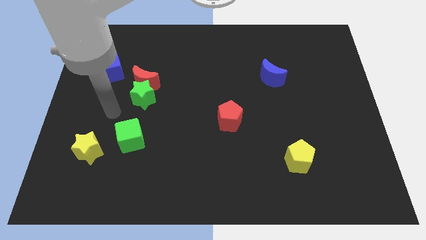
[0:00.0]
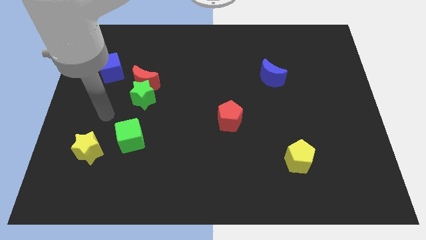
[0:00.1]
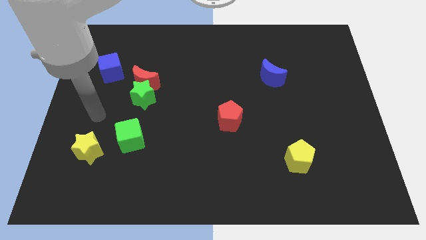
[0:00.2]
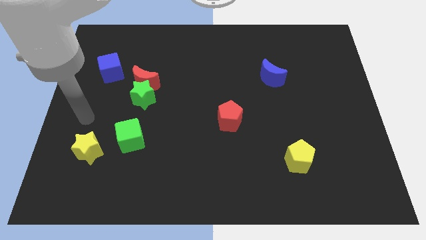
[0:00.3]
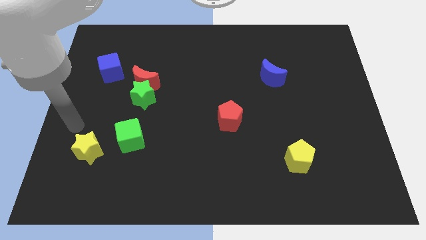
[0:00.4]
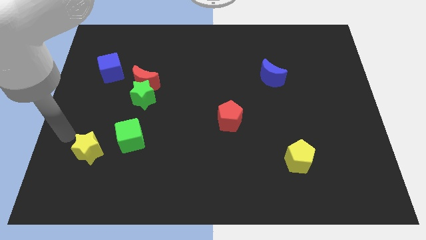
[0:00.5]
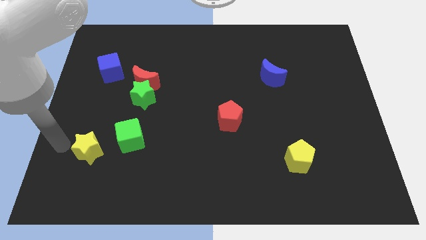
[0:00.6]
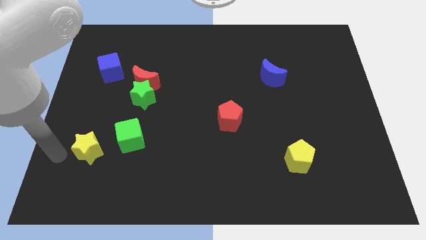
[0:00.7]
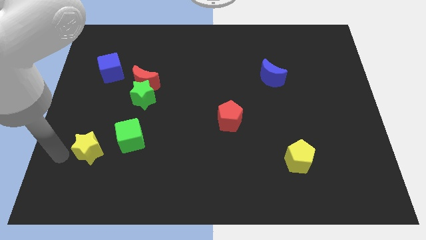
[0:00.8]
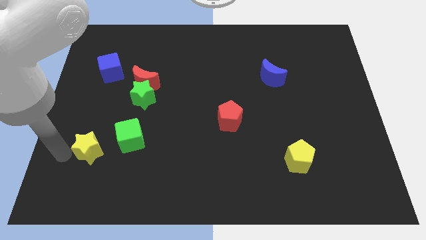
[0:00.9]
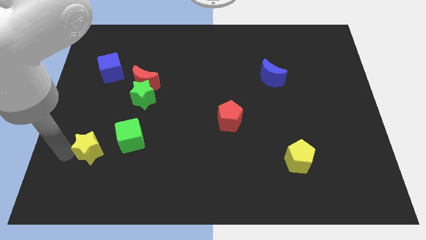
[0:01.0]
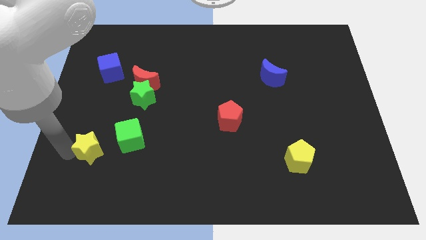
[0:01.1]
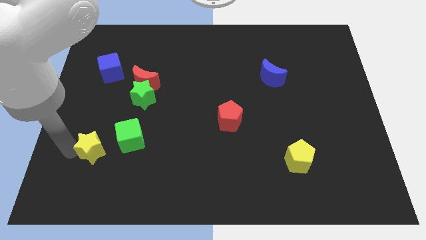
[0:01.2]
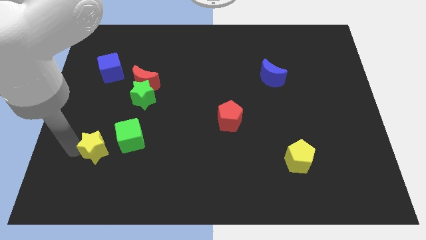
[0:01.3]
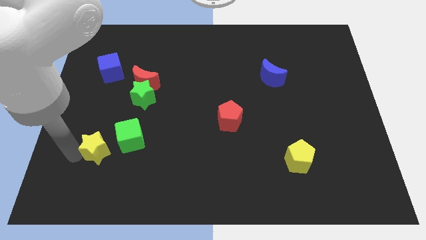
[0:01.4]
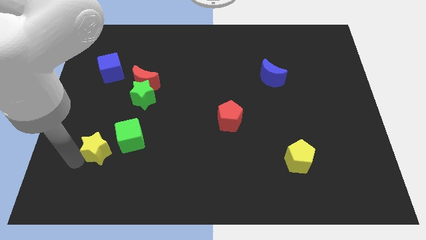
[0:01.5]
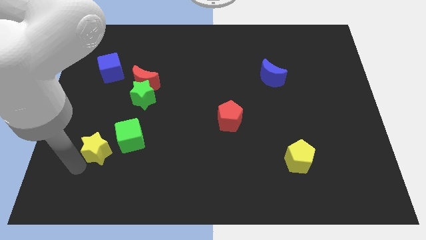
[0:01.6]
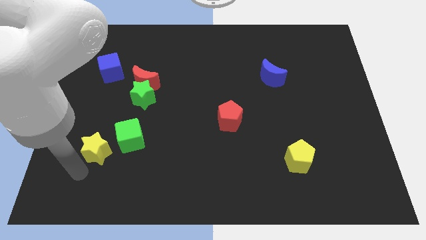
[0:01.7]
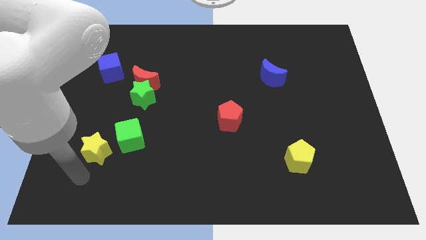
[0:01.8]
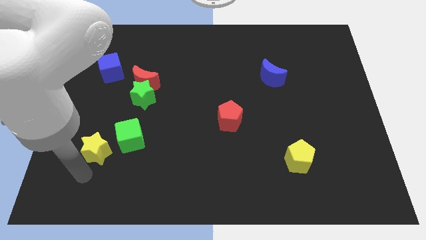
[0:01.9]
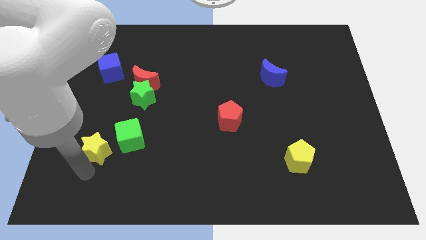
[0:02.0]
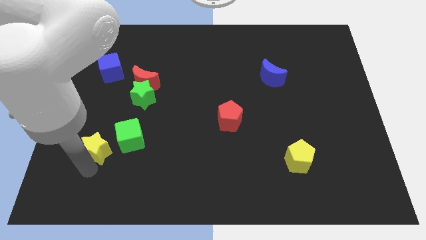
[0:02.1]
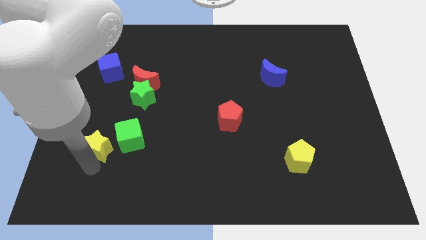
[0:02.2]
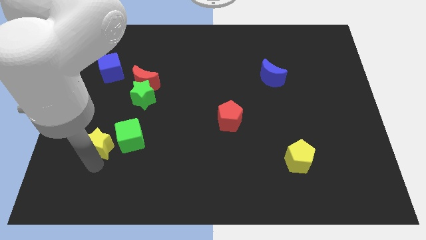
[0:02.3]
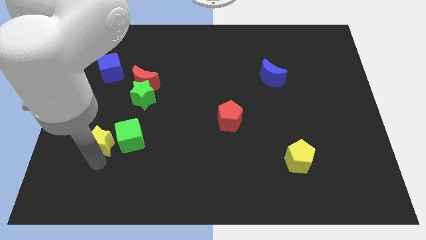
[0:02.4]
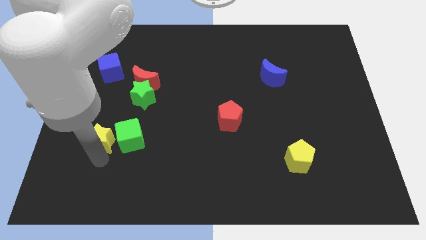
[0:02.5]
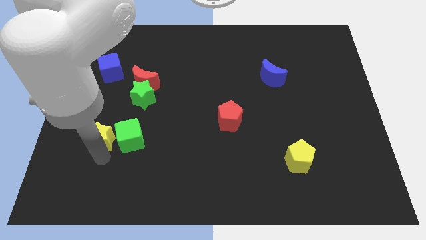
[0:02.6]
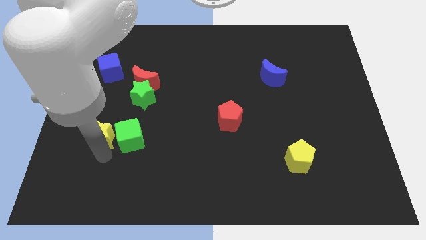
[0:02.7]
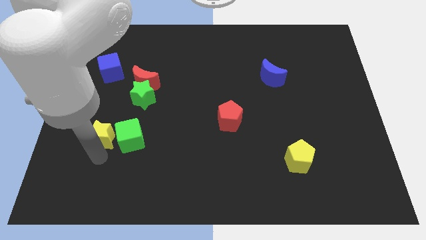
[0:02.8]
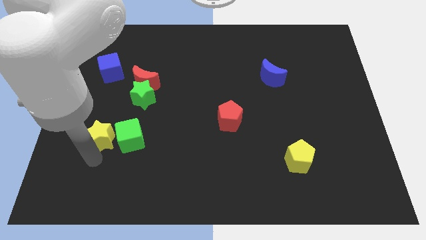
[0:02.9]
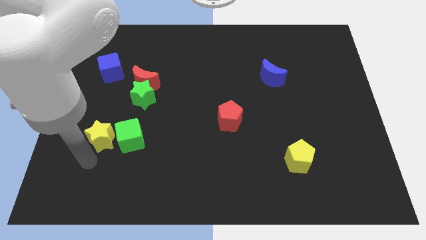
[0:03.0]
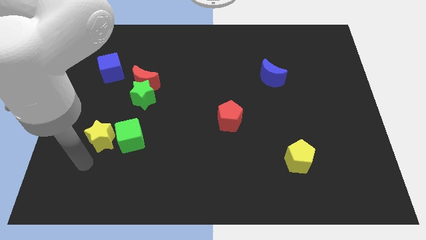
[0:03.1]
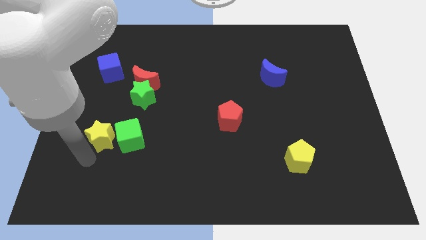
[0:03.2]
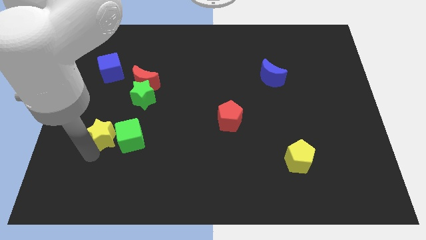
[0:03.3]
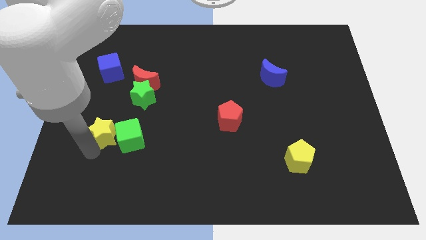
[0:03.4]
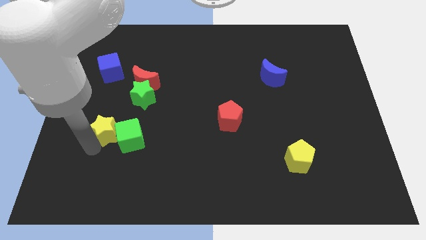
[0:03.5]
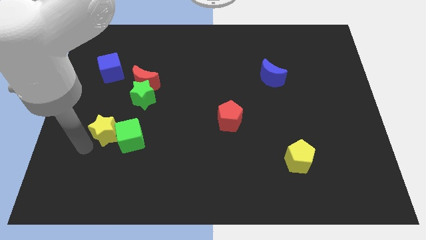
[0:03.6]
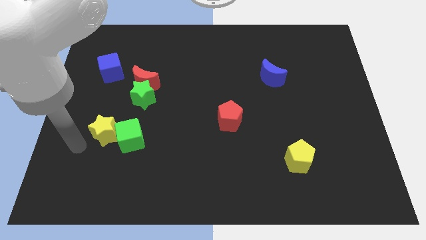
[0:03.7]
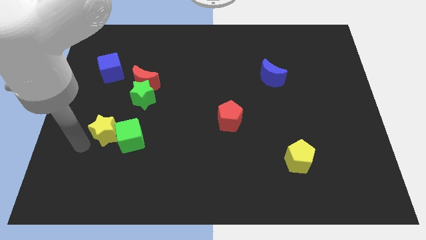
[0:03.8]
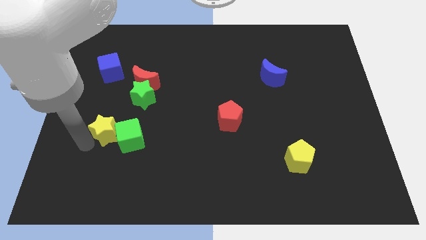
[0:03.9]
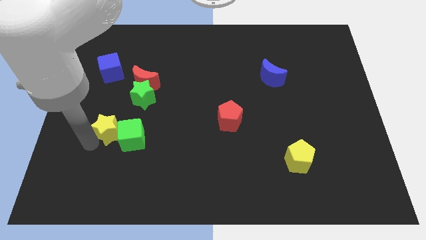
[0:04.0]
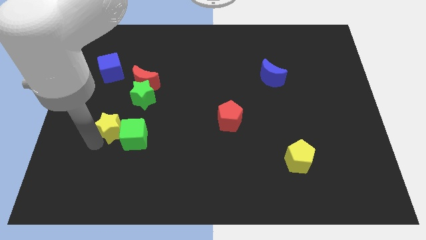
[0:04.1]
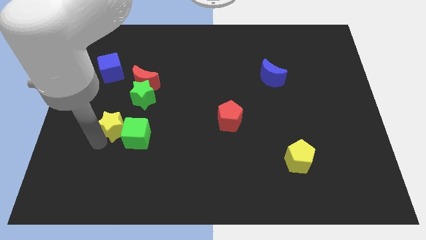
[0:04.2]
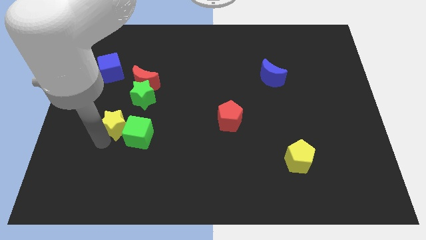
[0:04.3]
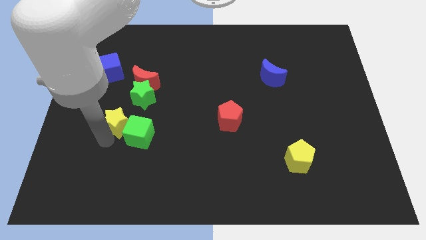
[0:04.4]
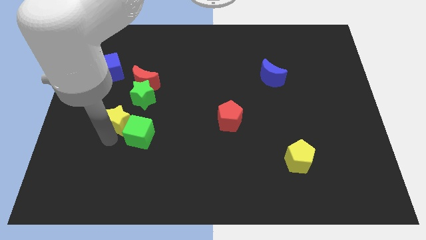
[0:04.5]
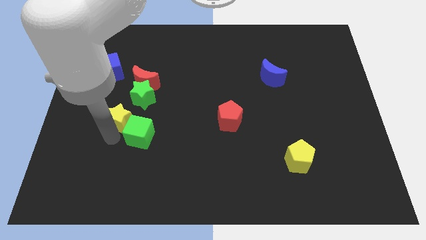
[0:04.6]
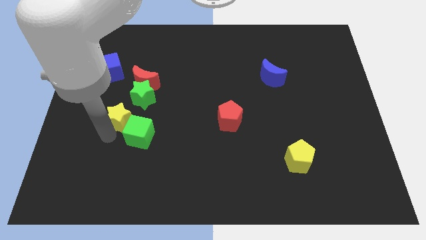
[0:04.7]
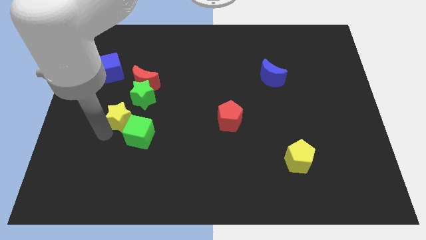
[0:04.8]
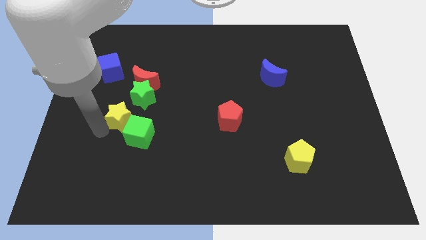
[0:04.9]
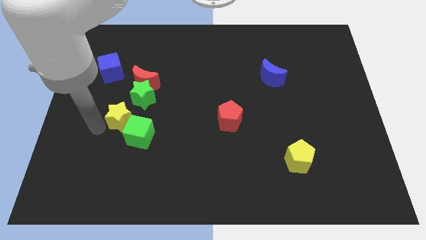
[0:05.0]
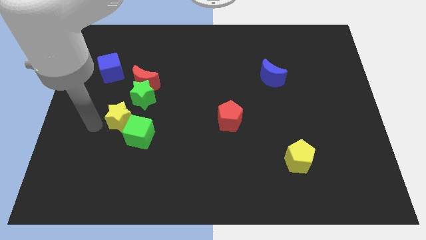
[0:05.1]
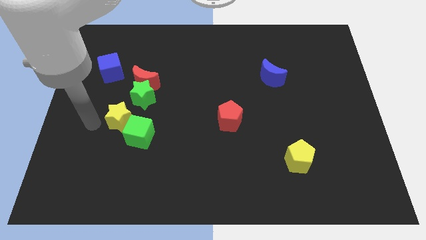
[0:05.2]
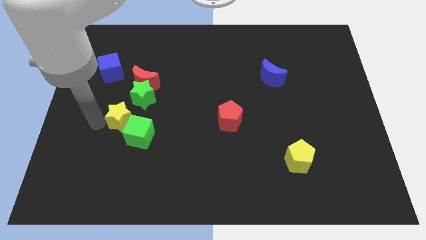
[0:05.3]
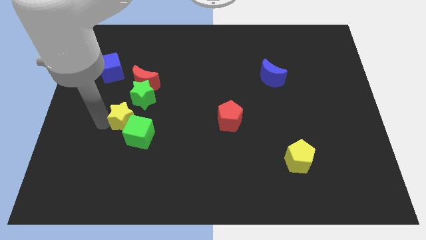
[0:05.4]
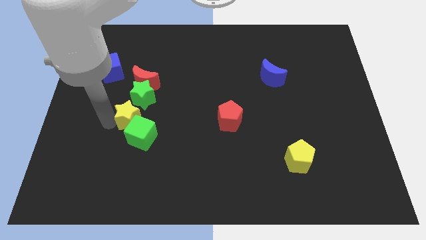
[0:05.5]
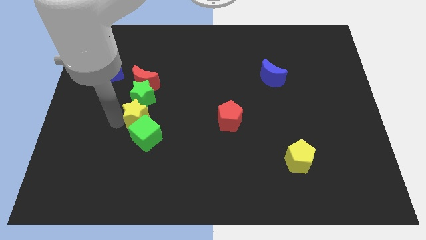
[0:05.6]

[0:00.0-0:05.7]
slide the yellow star diagonally down and to the right of the green star

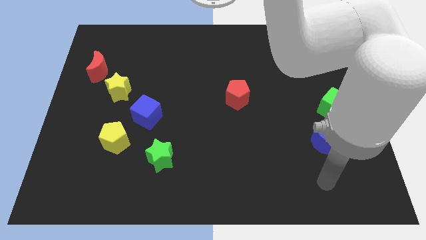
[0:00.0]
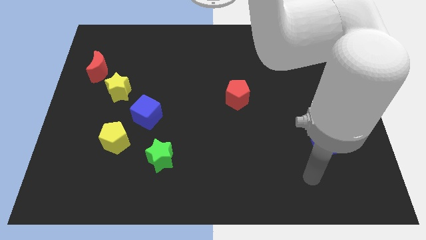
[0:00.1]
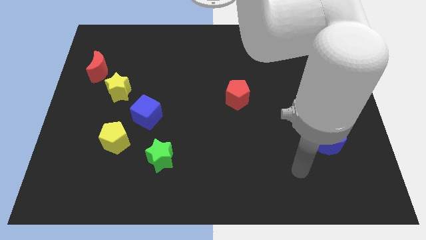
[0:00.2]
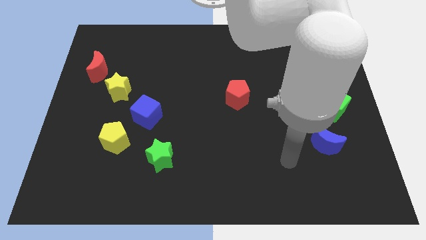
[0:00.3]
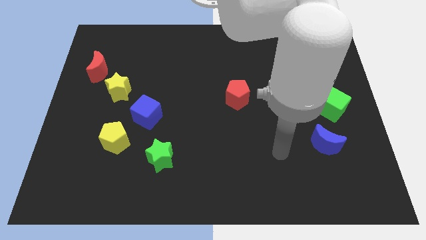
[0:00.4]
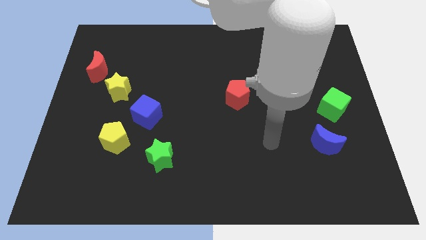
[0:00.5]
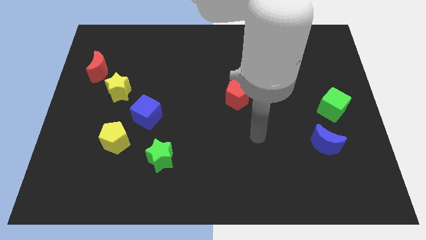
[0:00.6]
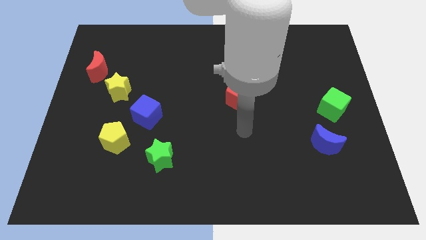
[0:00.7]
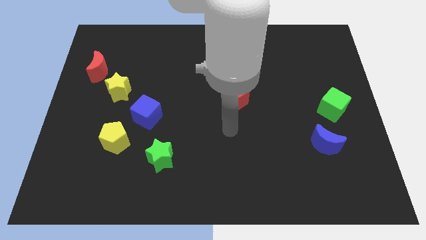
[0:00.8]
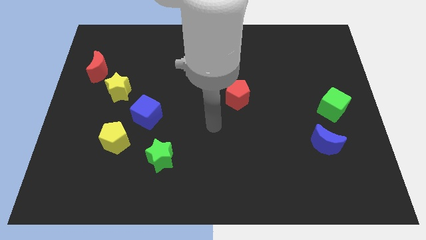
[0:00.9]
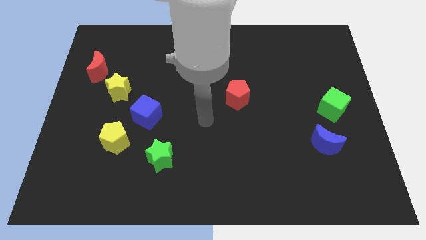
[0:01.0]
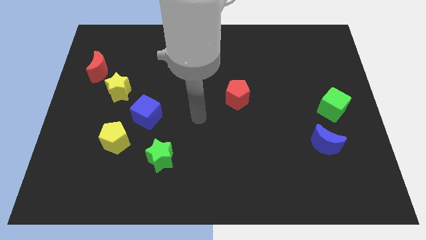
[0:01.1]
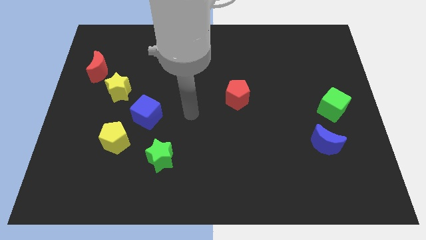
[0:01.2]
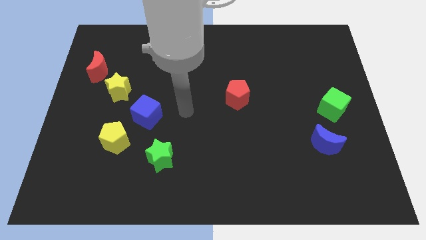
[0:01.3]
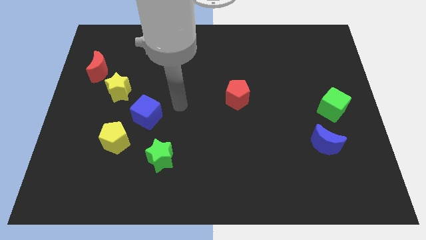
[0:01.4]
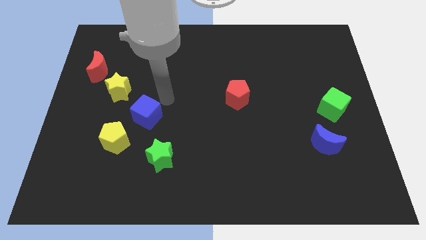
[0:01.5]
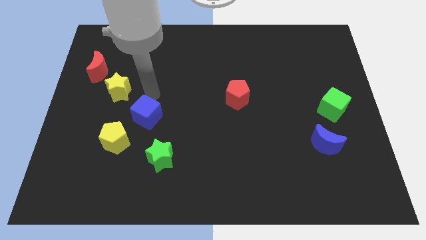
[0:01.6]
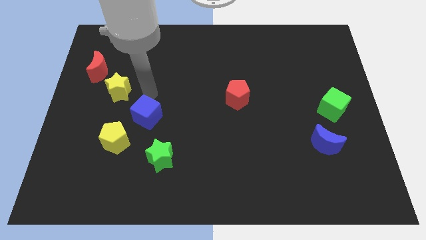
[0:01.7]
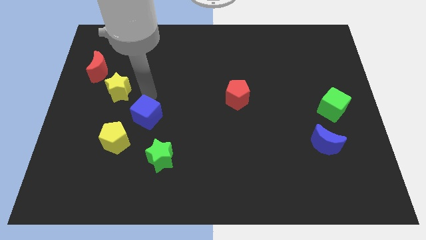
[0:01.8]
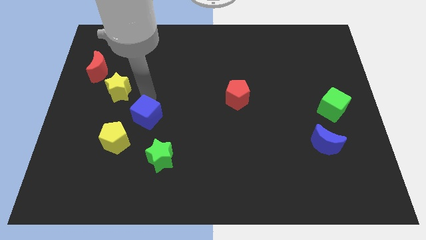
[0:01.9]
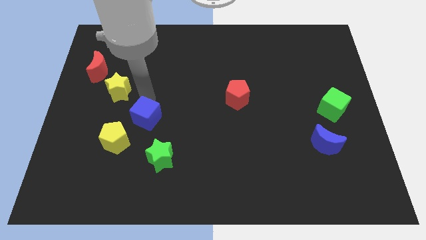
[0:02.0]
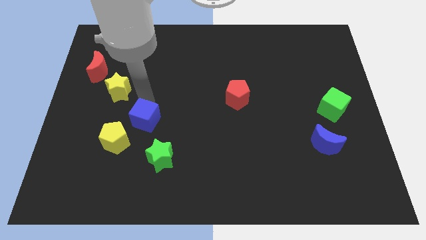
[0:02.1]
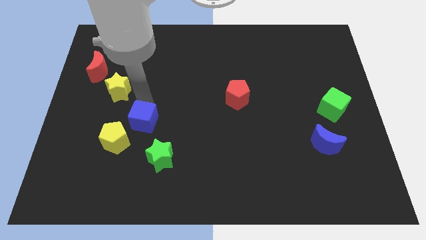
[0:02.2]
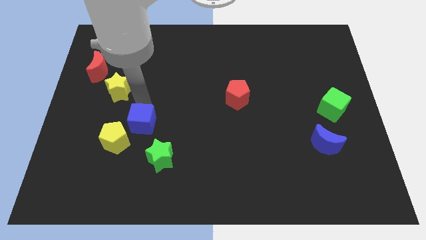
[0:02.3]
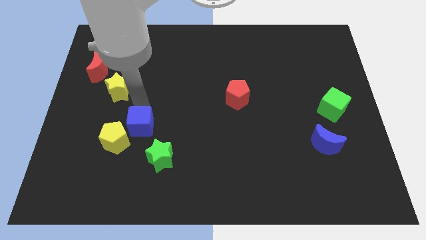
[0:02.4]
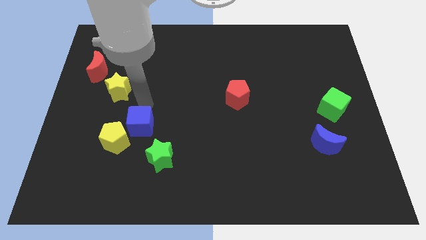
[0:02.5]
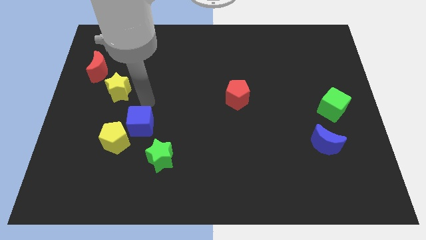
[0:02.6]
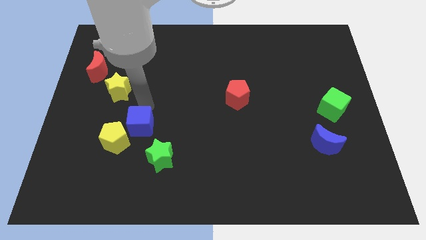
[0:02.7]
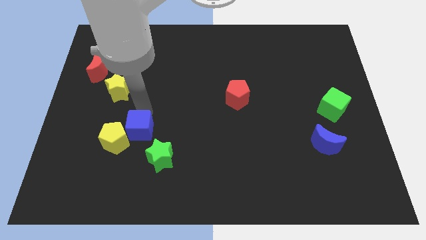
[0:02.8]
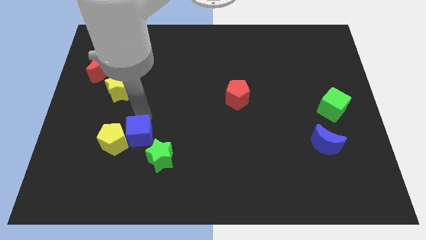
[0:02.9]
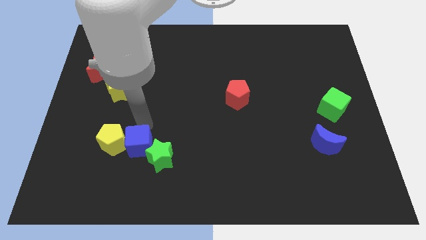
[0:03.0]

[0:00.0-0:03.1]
move the blue cube left of the green star
